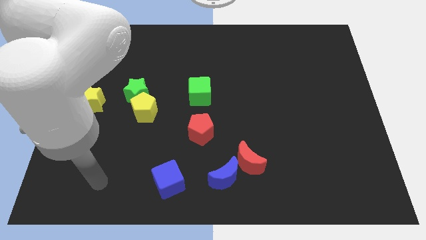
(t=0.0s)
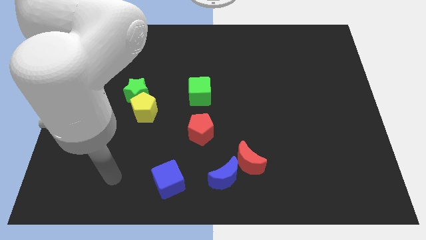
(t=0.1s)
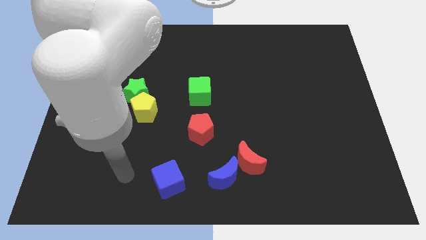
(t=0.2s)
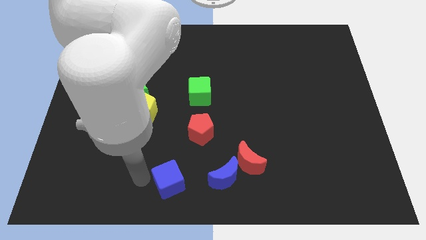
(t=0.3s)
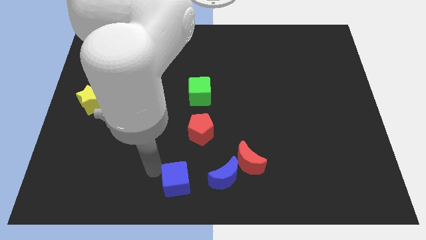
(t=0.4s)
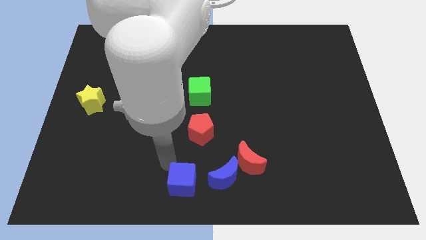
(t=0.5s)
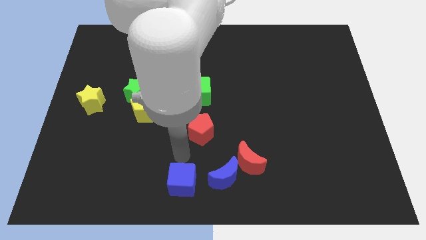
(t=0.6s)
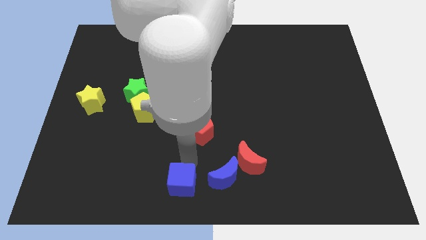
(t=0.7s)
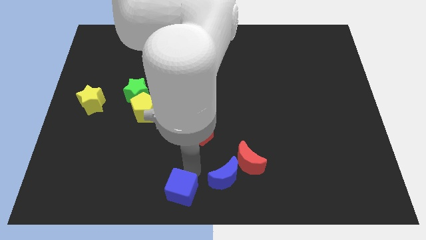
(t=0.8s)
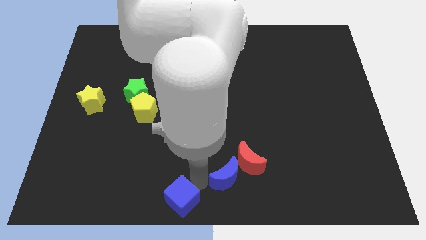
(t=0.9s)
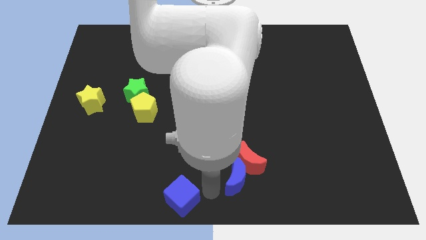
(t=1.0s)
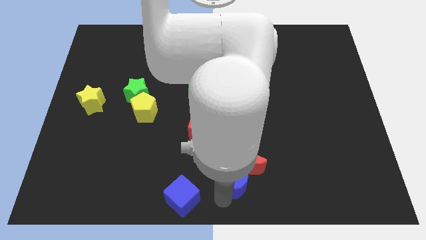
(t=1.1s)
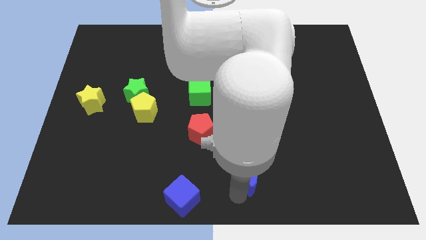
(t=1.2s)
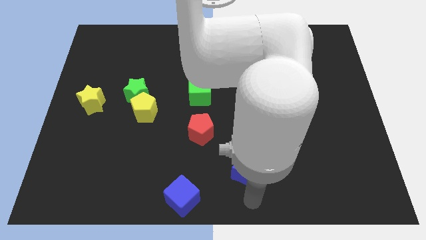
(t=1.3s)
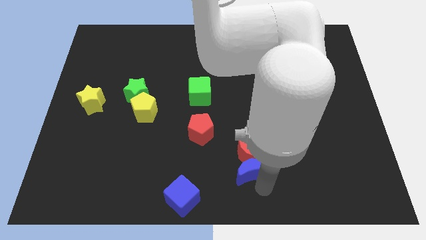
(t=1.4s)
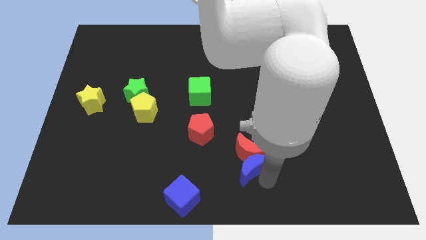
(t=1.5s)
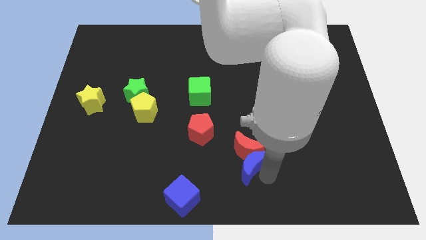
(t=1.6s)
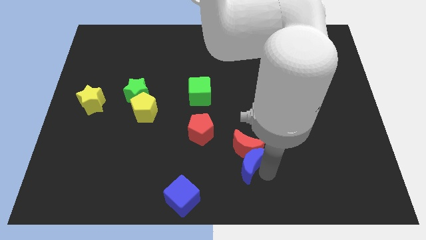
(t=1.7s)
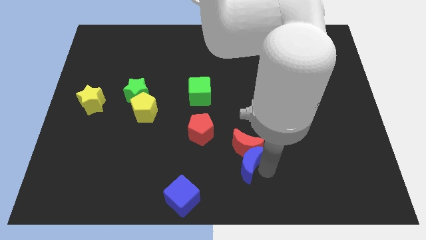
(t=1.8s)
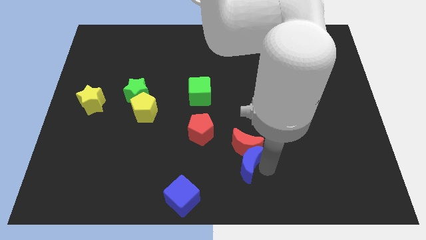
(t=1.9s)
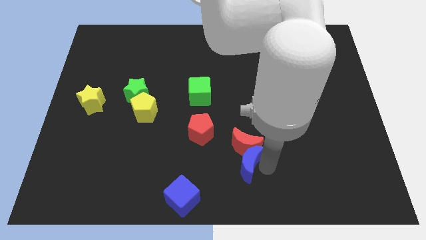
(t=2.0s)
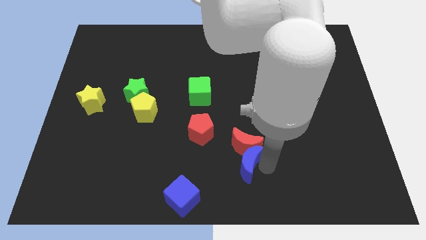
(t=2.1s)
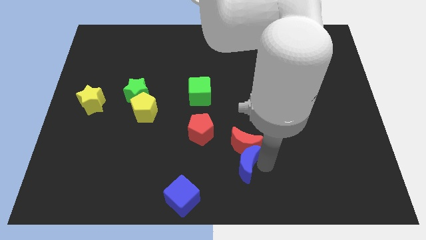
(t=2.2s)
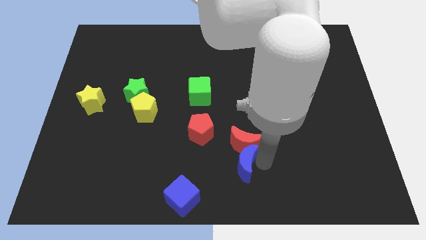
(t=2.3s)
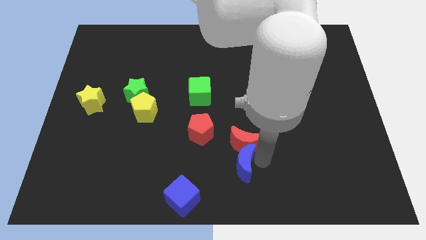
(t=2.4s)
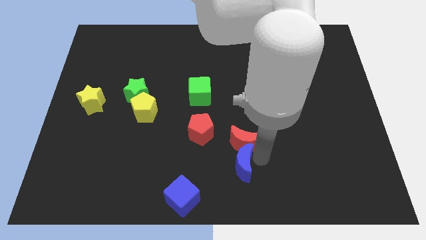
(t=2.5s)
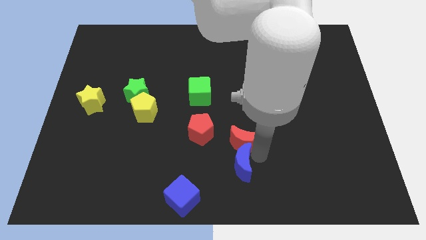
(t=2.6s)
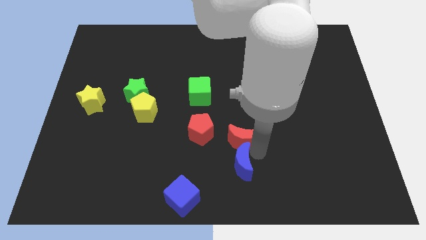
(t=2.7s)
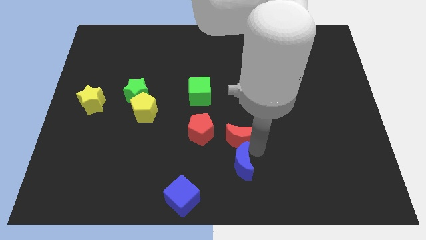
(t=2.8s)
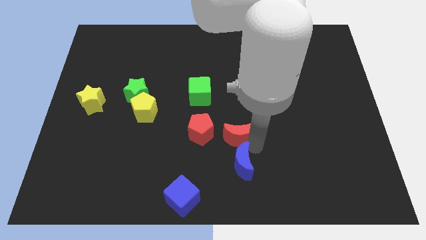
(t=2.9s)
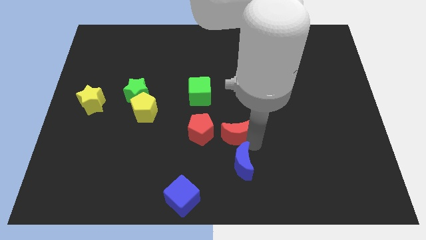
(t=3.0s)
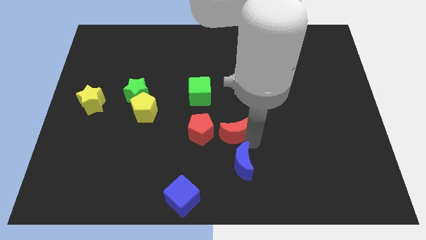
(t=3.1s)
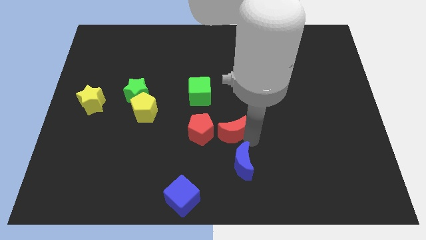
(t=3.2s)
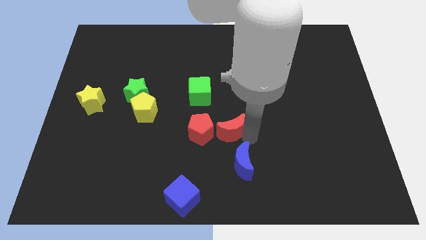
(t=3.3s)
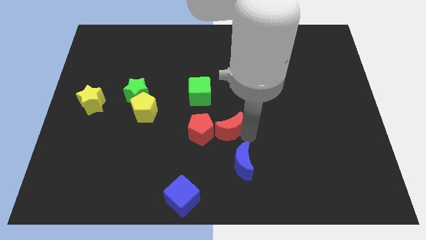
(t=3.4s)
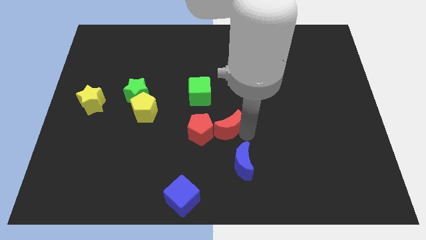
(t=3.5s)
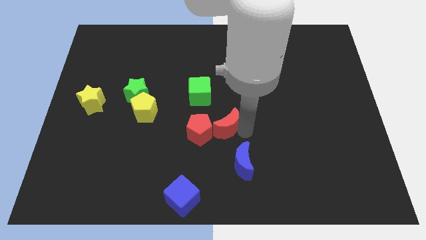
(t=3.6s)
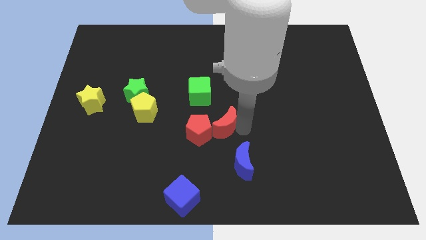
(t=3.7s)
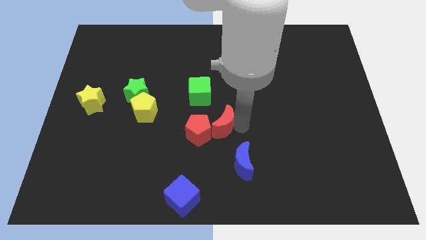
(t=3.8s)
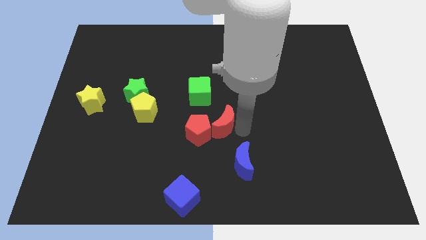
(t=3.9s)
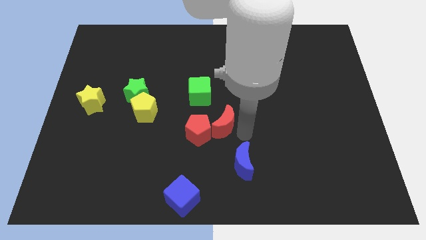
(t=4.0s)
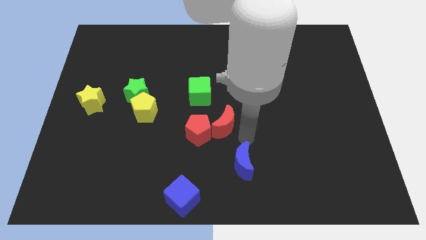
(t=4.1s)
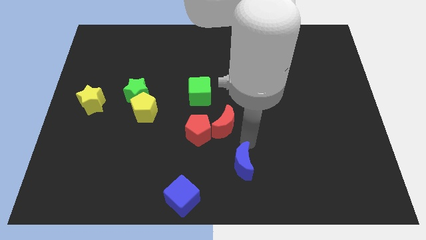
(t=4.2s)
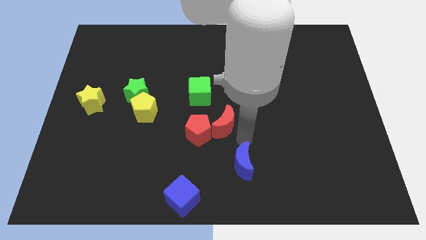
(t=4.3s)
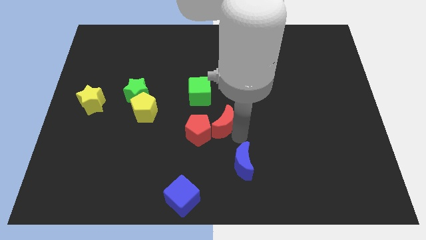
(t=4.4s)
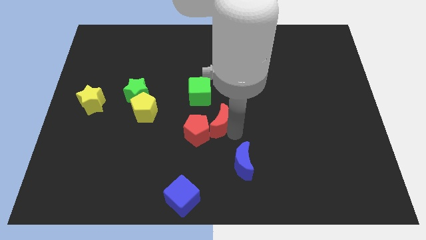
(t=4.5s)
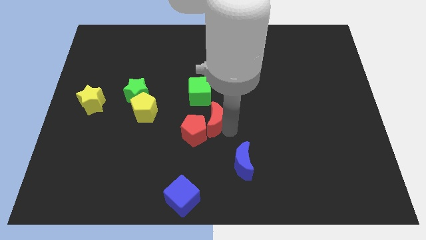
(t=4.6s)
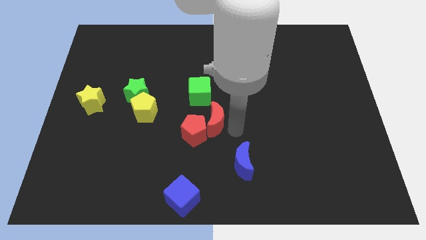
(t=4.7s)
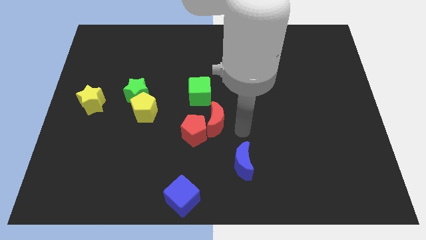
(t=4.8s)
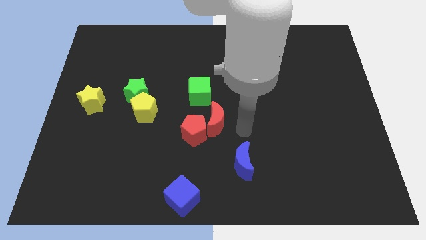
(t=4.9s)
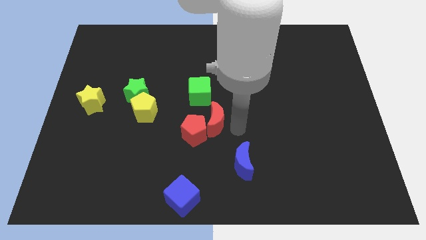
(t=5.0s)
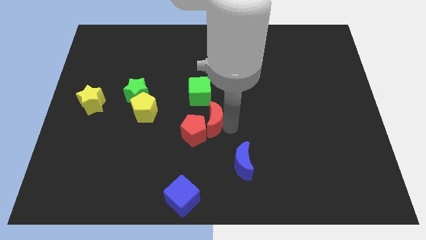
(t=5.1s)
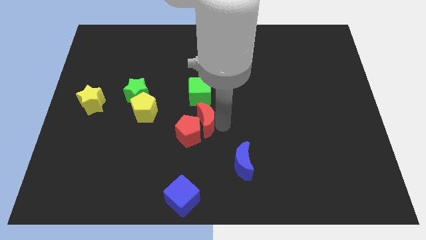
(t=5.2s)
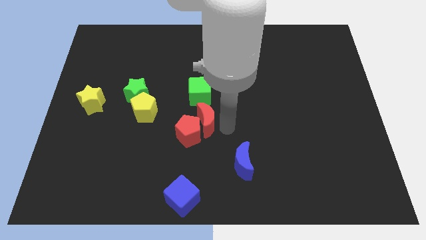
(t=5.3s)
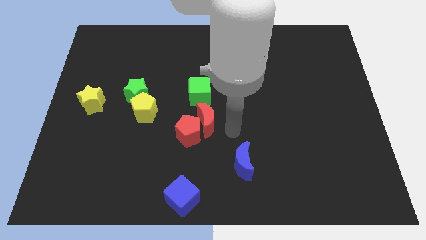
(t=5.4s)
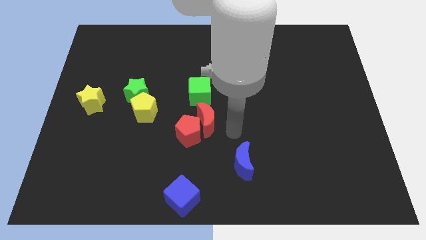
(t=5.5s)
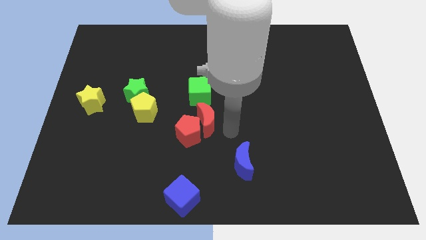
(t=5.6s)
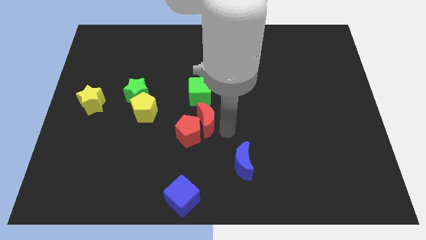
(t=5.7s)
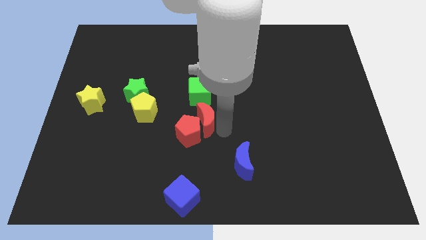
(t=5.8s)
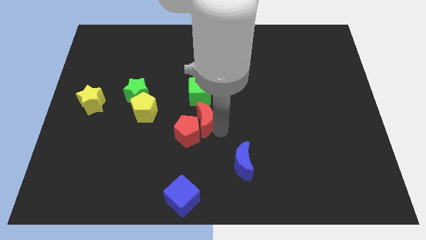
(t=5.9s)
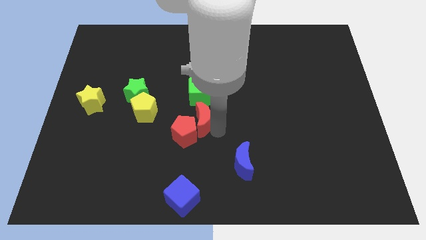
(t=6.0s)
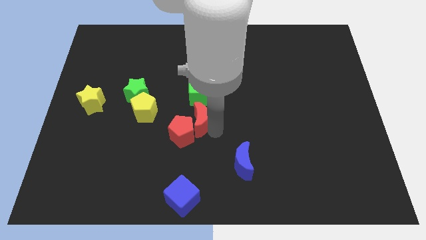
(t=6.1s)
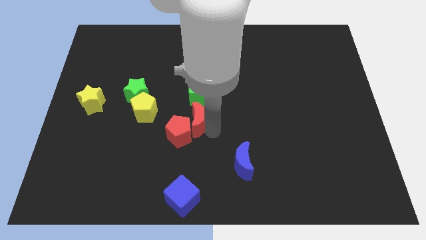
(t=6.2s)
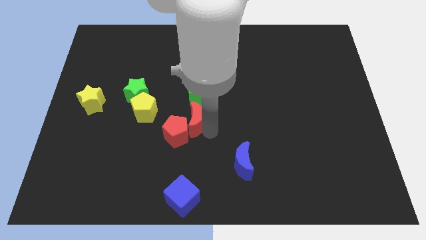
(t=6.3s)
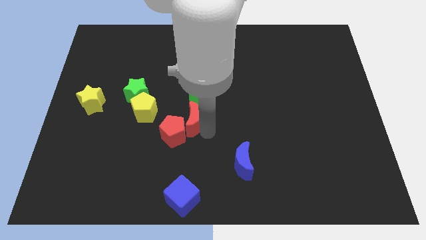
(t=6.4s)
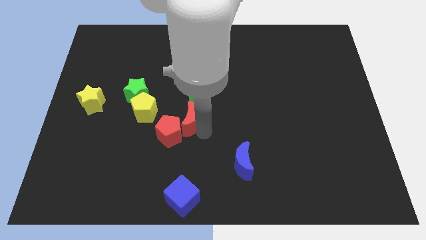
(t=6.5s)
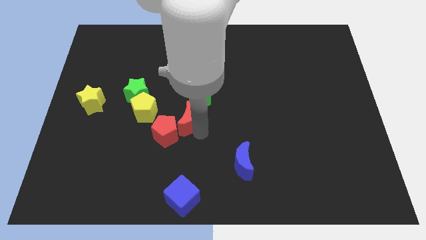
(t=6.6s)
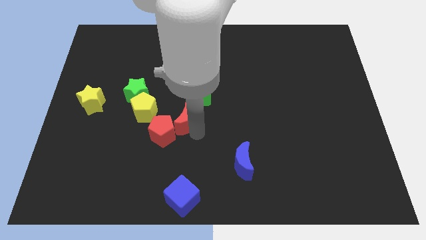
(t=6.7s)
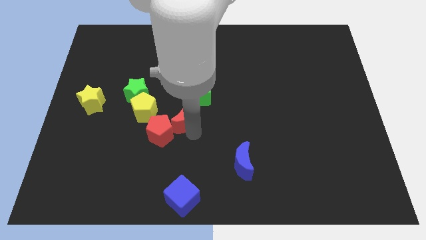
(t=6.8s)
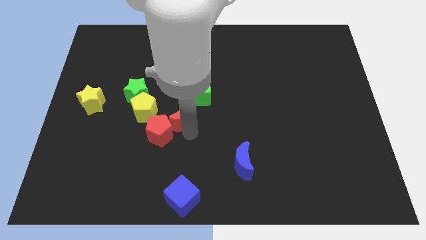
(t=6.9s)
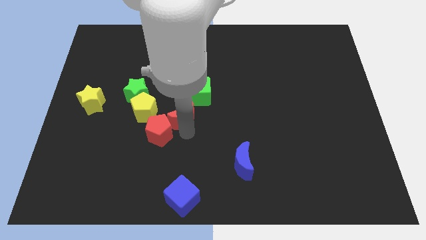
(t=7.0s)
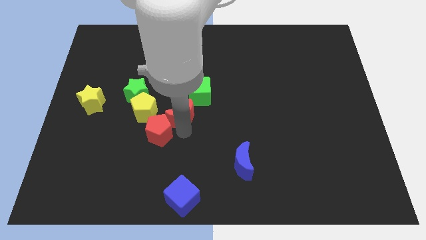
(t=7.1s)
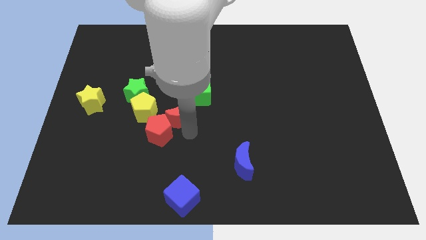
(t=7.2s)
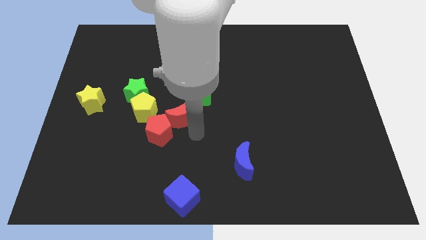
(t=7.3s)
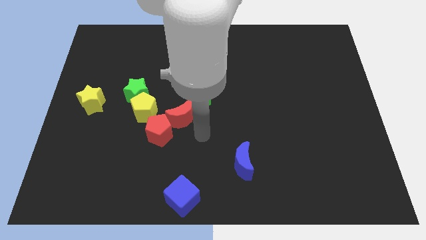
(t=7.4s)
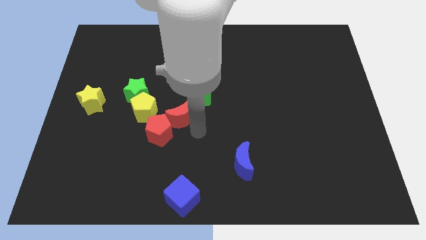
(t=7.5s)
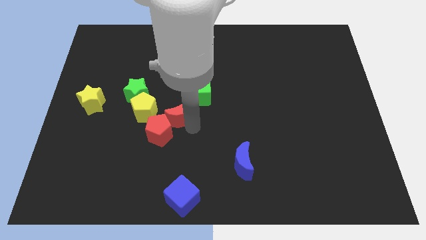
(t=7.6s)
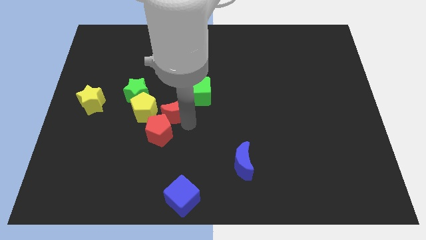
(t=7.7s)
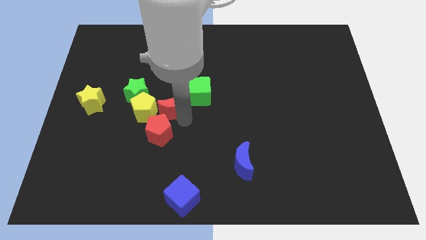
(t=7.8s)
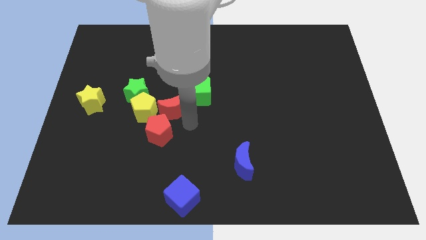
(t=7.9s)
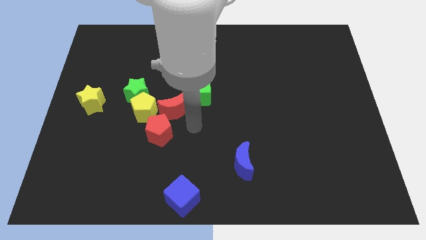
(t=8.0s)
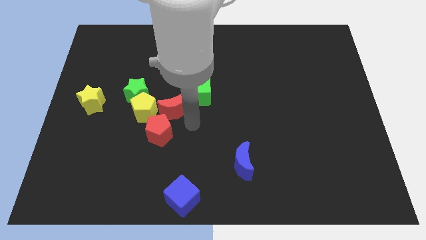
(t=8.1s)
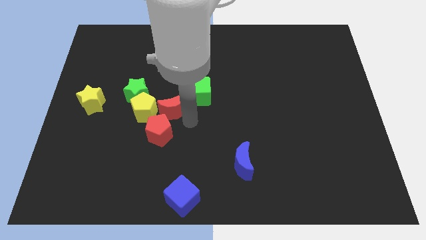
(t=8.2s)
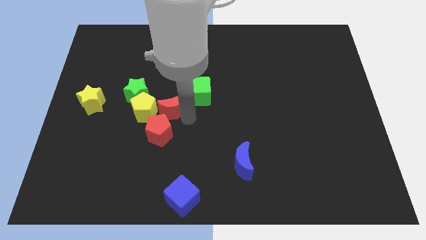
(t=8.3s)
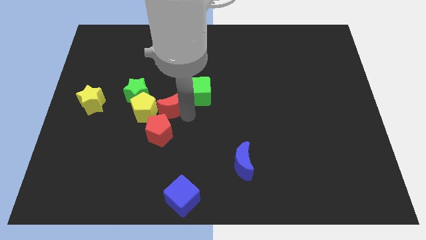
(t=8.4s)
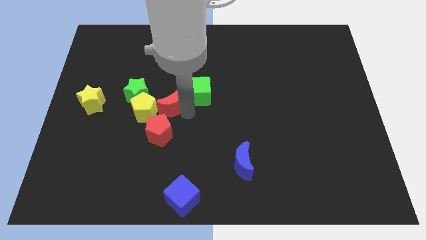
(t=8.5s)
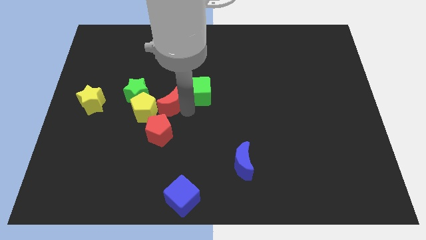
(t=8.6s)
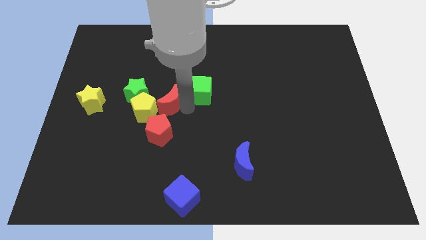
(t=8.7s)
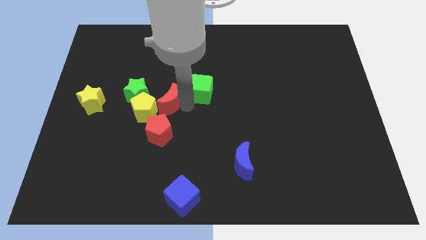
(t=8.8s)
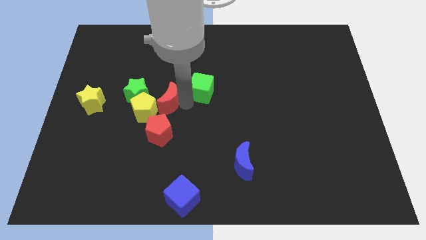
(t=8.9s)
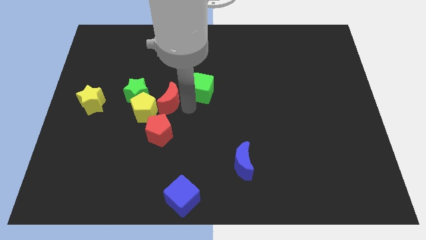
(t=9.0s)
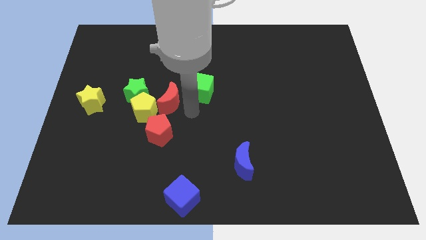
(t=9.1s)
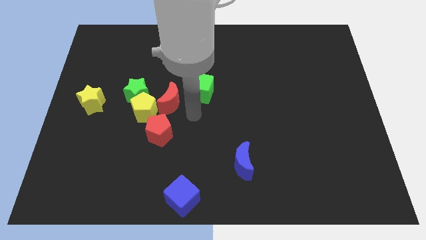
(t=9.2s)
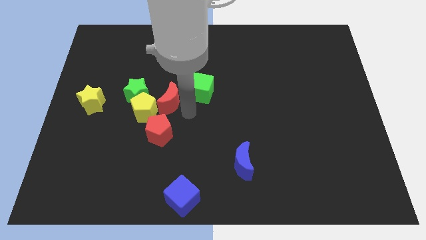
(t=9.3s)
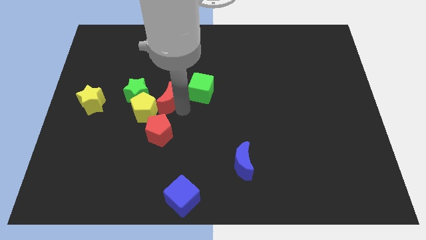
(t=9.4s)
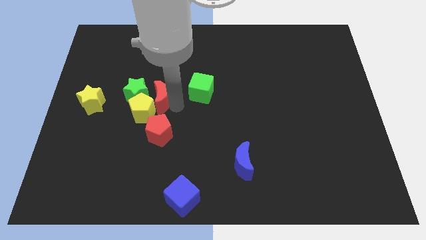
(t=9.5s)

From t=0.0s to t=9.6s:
move the red moon close to the green star
